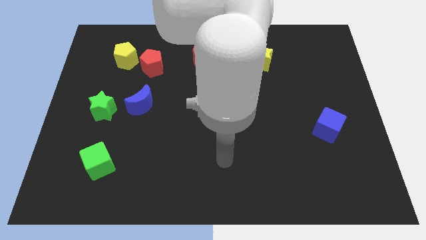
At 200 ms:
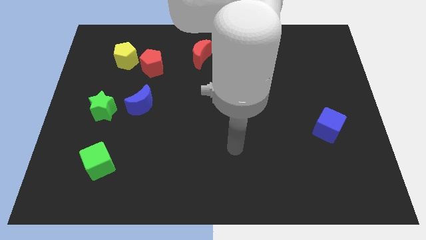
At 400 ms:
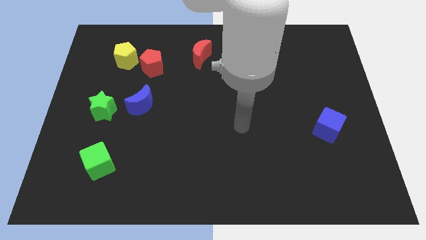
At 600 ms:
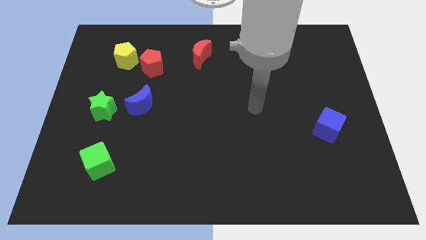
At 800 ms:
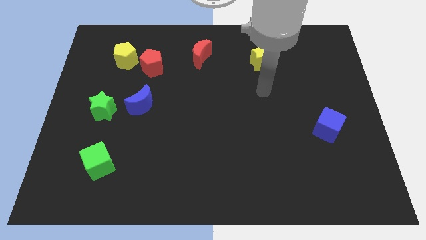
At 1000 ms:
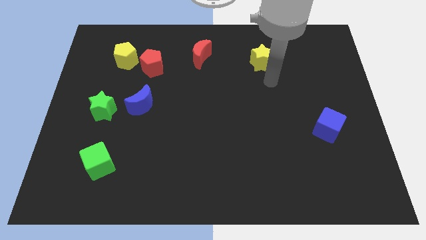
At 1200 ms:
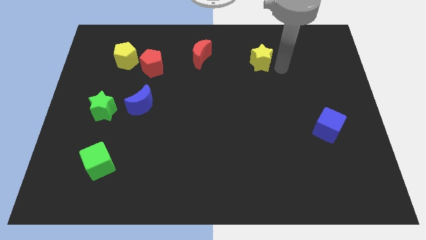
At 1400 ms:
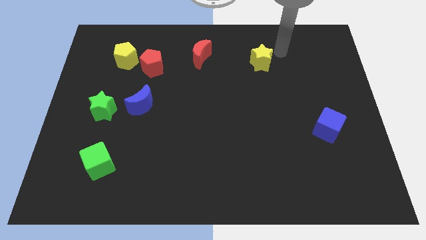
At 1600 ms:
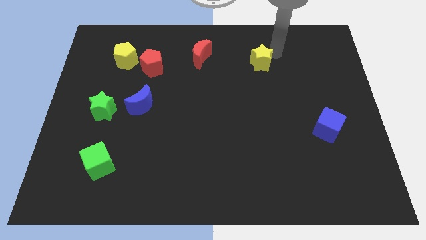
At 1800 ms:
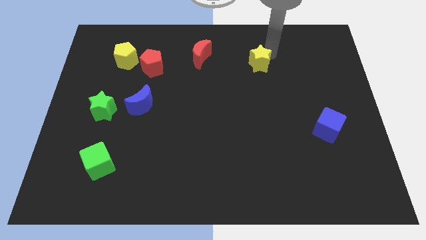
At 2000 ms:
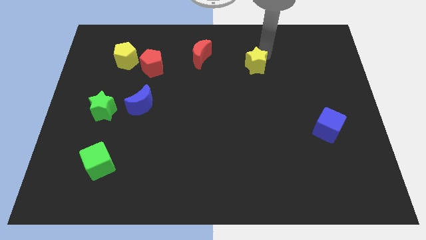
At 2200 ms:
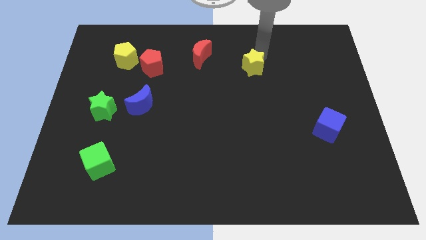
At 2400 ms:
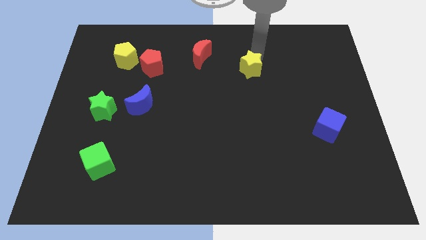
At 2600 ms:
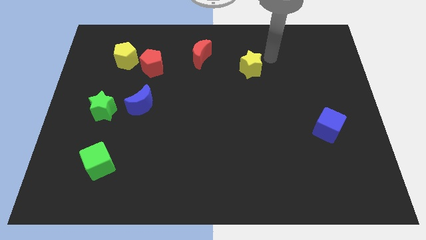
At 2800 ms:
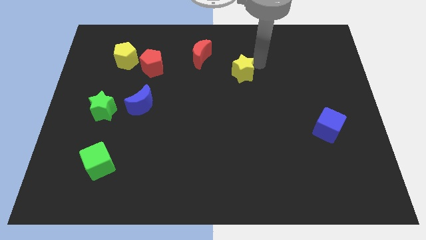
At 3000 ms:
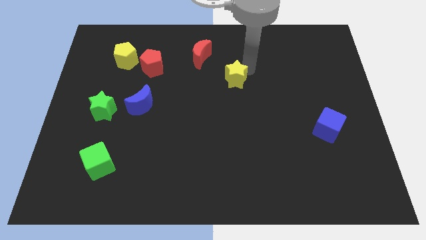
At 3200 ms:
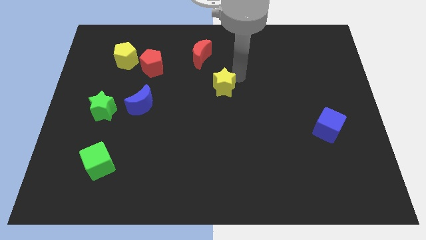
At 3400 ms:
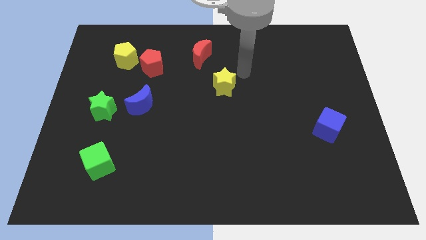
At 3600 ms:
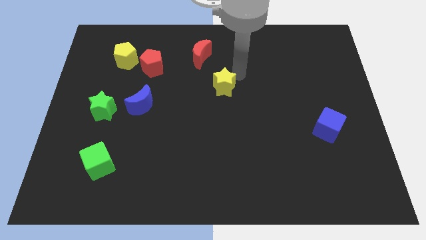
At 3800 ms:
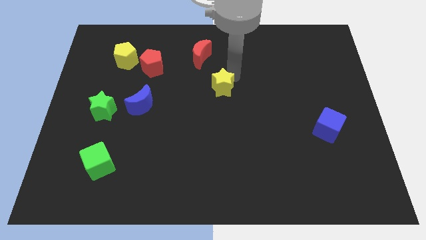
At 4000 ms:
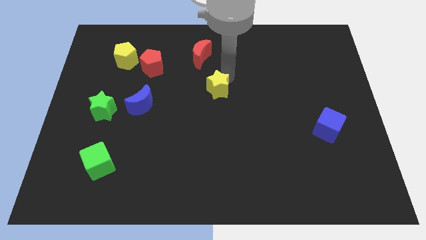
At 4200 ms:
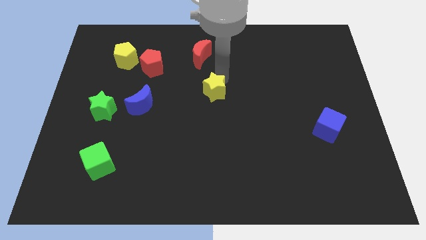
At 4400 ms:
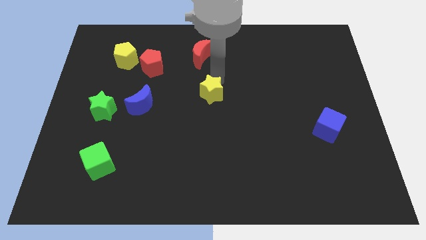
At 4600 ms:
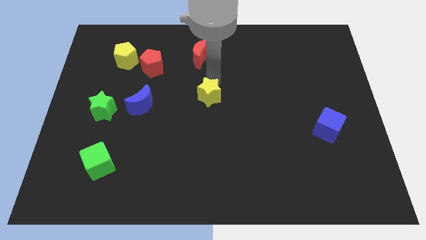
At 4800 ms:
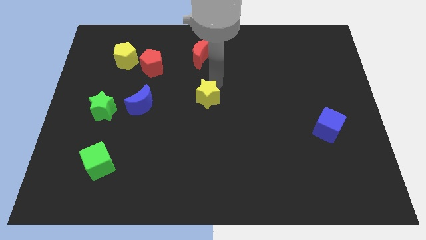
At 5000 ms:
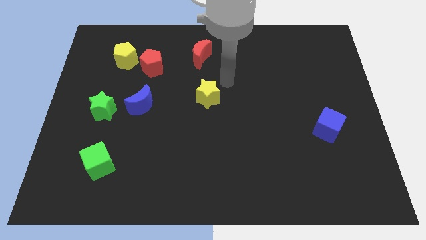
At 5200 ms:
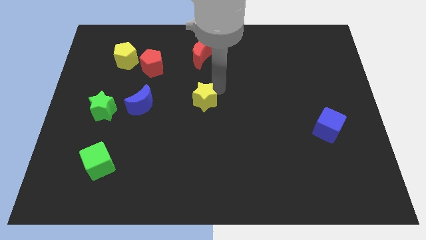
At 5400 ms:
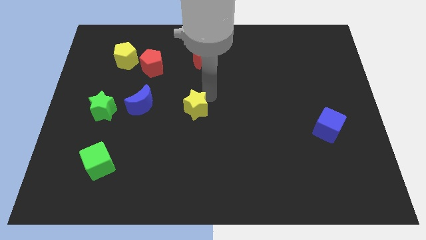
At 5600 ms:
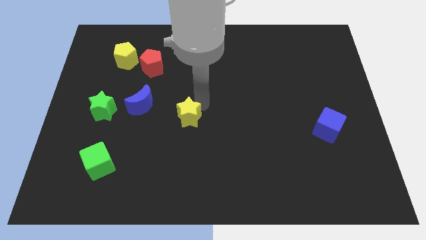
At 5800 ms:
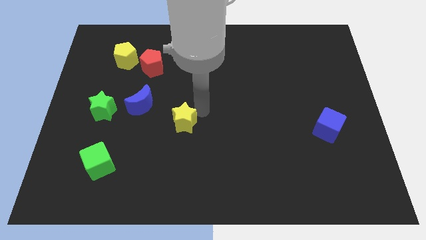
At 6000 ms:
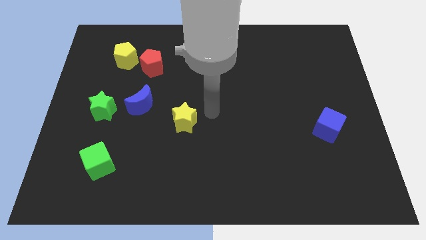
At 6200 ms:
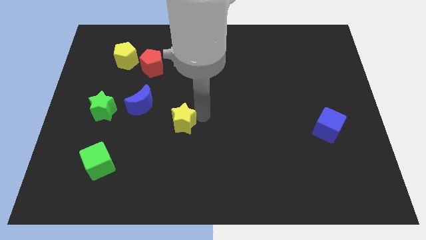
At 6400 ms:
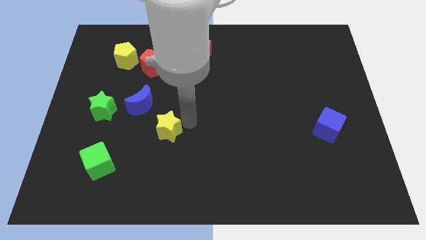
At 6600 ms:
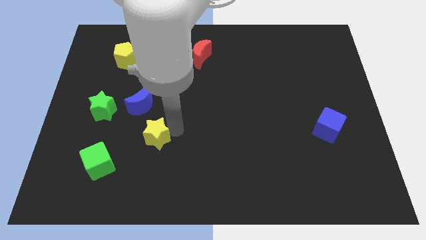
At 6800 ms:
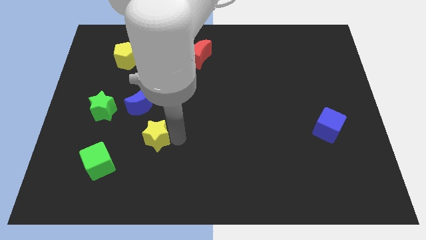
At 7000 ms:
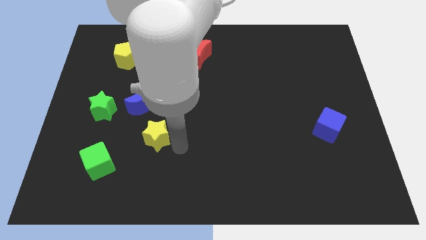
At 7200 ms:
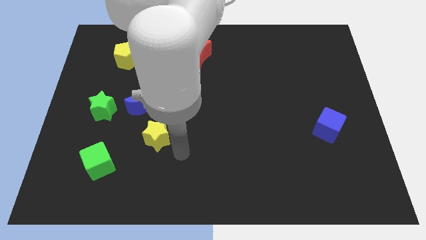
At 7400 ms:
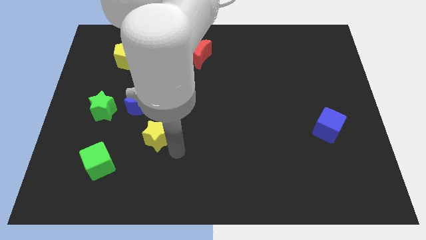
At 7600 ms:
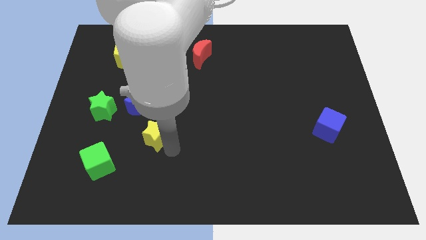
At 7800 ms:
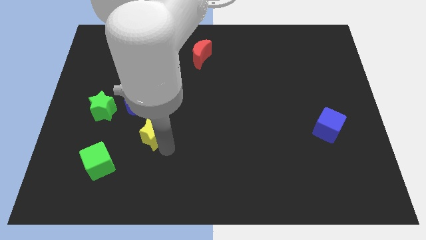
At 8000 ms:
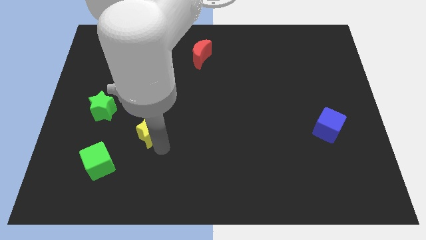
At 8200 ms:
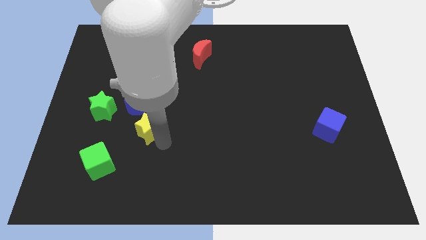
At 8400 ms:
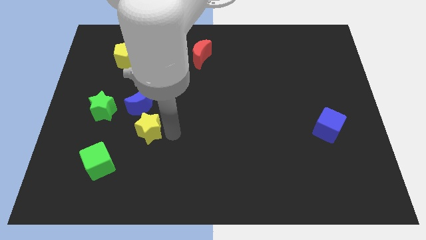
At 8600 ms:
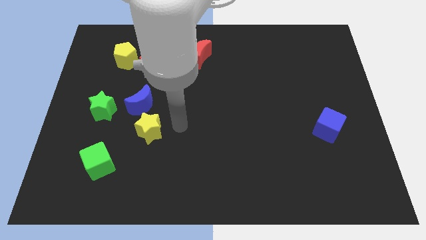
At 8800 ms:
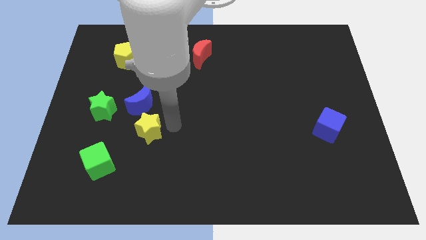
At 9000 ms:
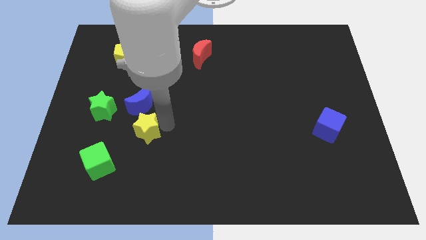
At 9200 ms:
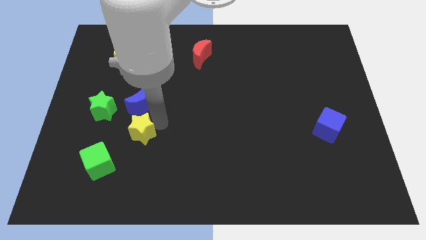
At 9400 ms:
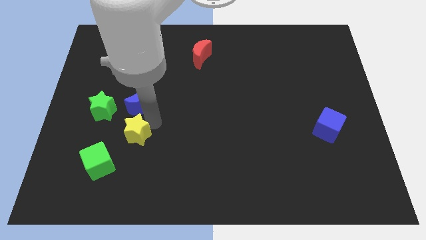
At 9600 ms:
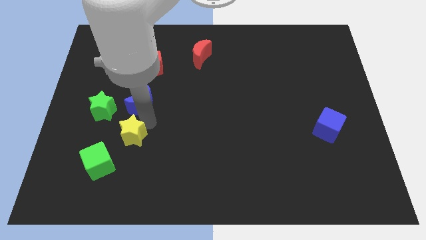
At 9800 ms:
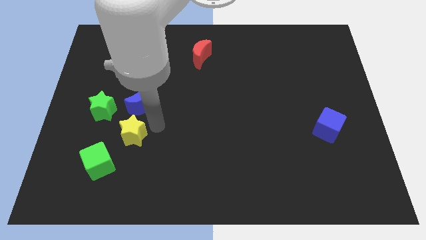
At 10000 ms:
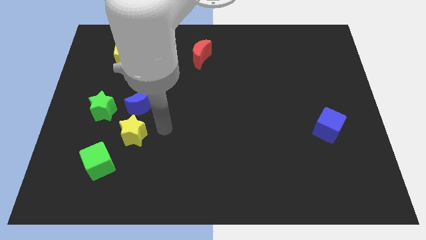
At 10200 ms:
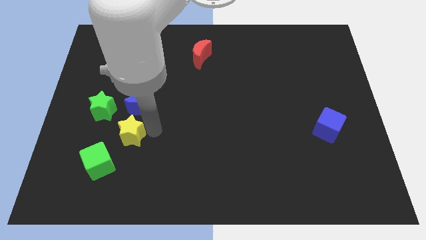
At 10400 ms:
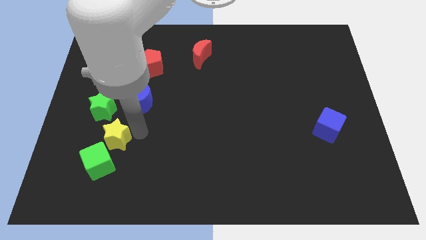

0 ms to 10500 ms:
move the yellow star below the green star

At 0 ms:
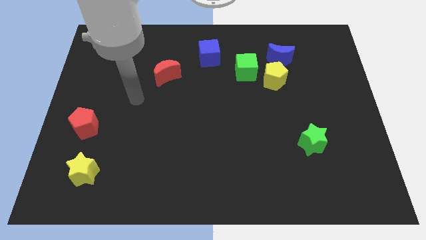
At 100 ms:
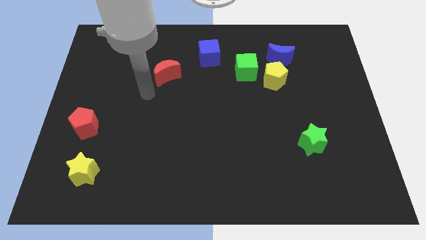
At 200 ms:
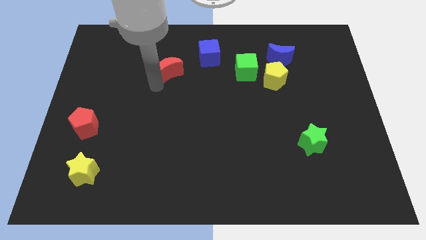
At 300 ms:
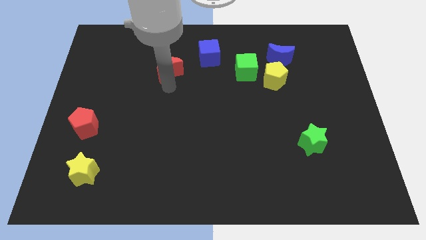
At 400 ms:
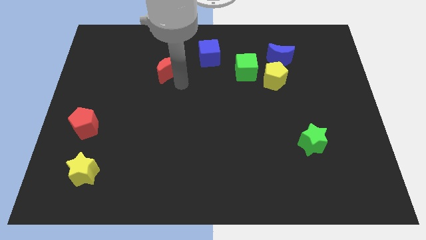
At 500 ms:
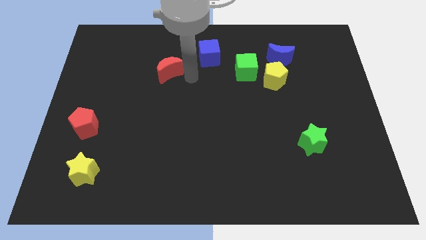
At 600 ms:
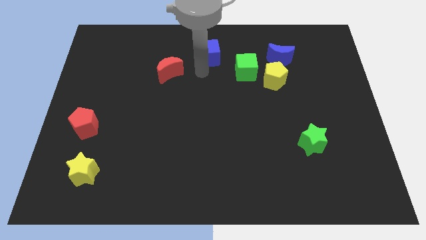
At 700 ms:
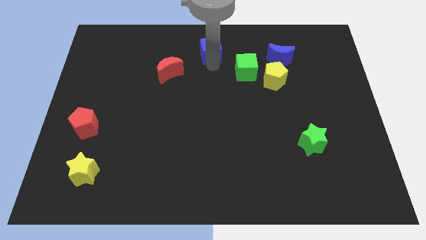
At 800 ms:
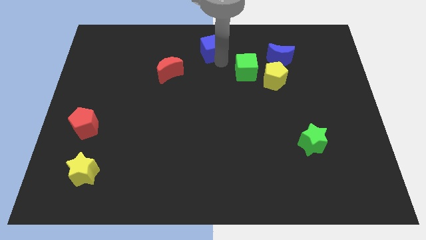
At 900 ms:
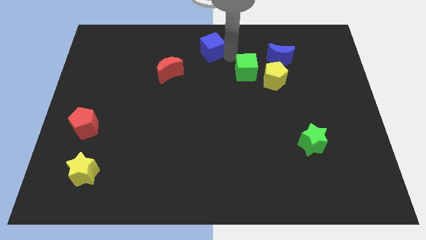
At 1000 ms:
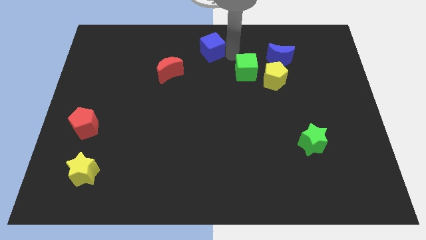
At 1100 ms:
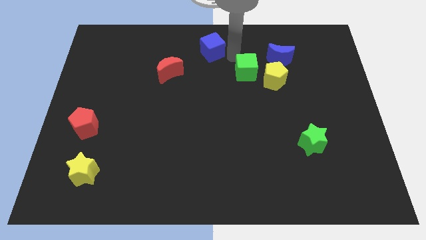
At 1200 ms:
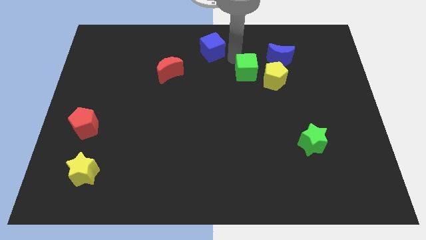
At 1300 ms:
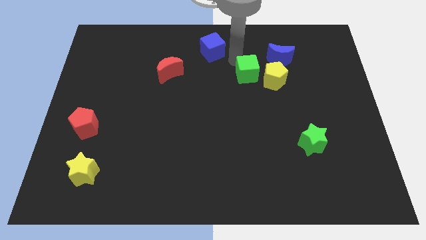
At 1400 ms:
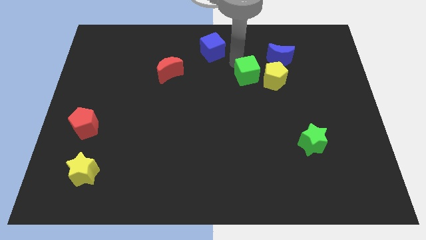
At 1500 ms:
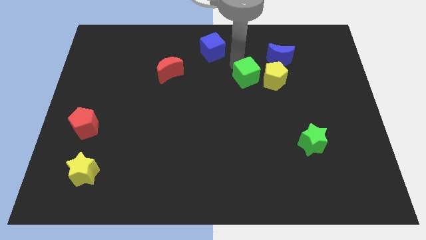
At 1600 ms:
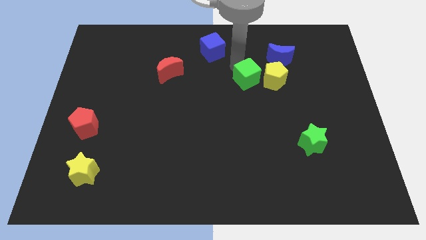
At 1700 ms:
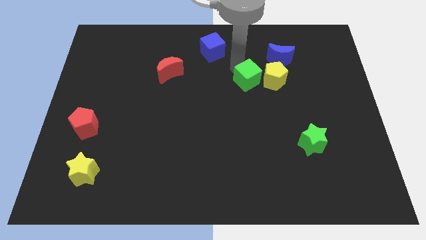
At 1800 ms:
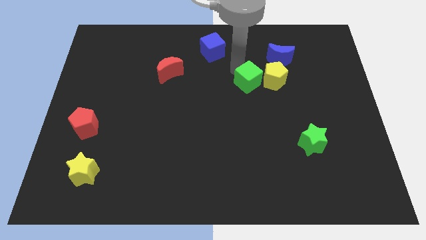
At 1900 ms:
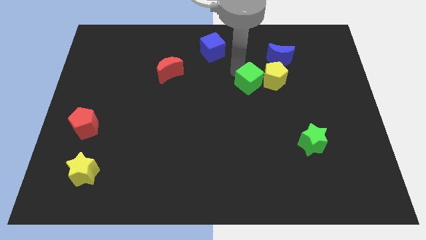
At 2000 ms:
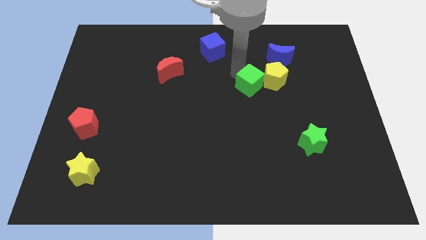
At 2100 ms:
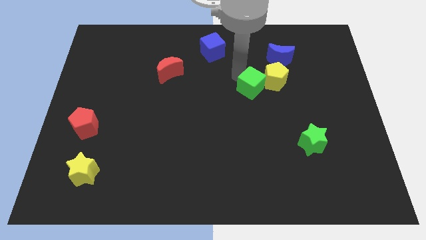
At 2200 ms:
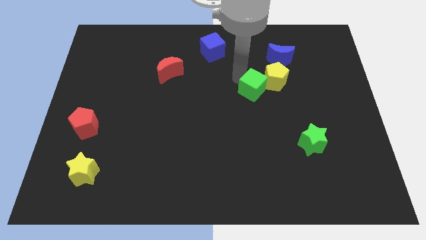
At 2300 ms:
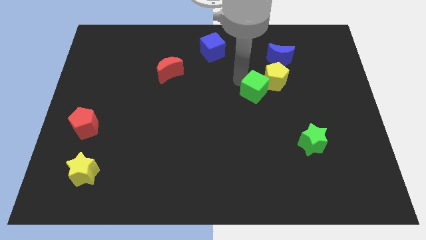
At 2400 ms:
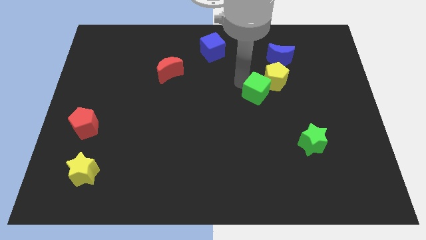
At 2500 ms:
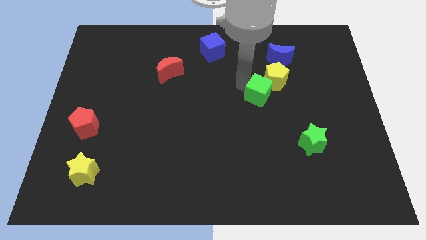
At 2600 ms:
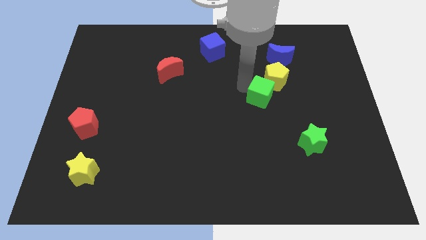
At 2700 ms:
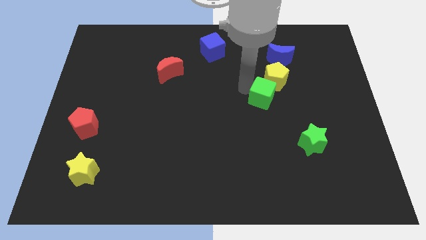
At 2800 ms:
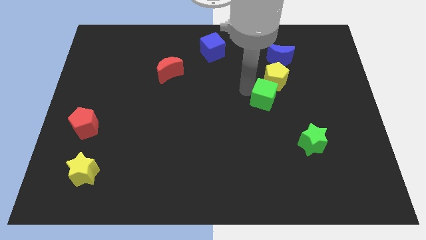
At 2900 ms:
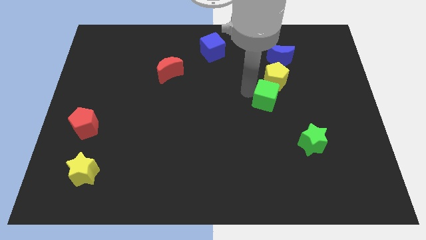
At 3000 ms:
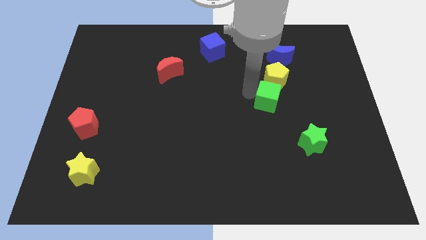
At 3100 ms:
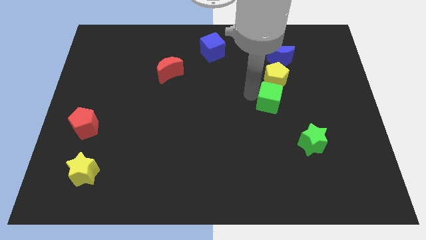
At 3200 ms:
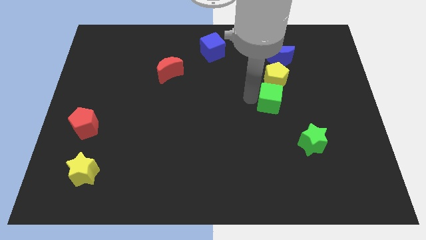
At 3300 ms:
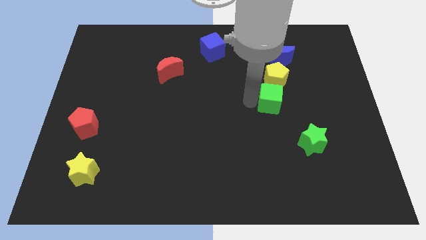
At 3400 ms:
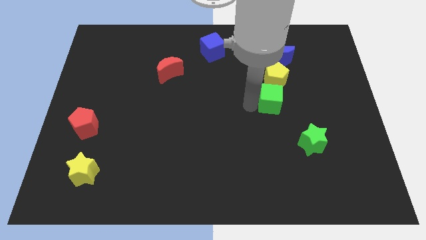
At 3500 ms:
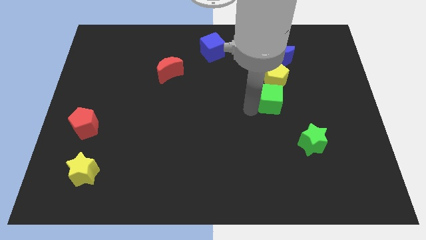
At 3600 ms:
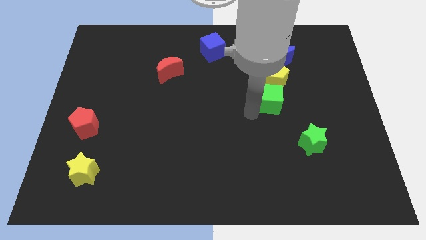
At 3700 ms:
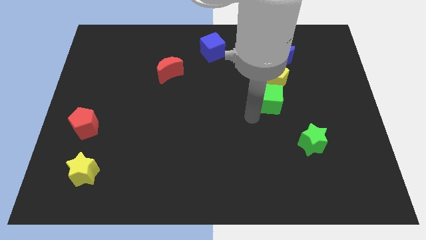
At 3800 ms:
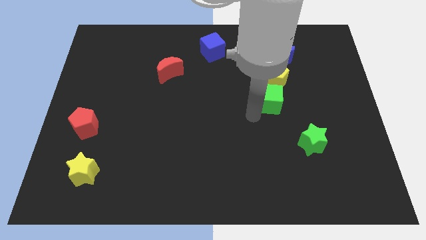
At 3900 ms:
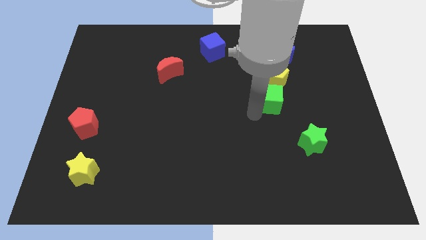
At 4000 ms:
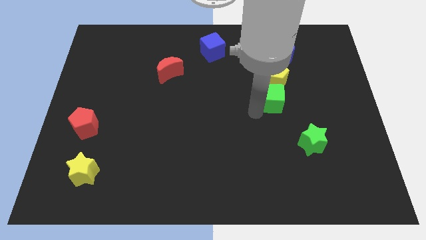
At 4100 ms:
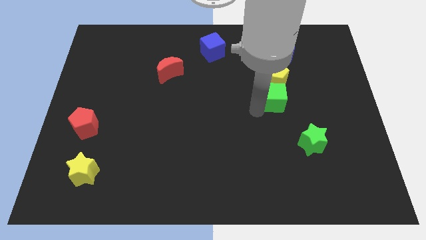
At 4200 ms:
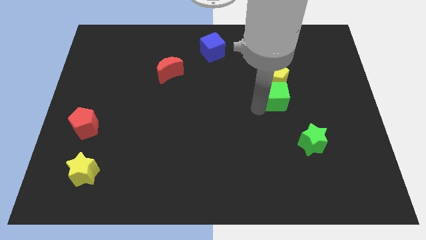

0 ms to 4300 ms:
push the green cube diagonally down and to the right of the yellow pentagon
